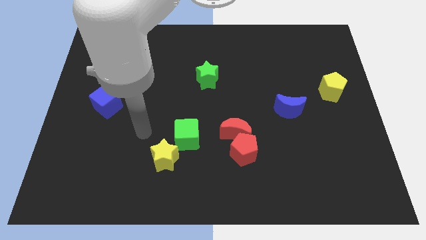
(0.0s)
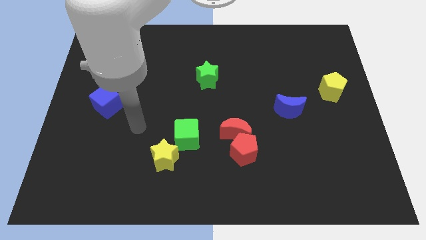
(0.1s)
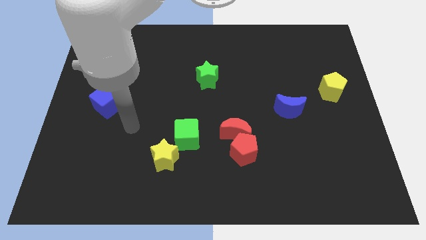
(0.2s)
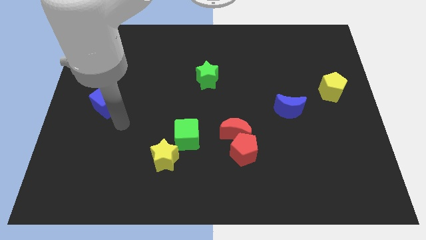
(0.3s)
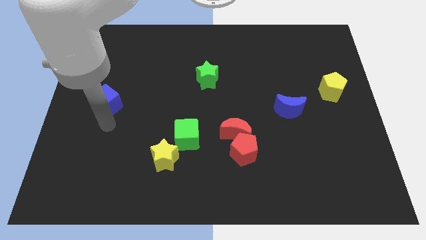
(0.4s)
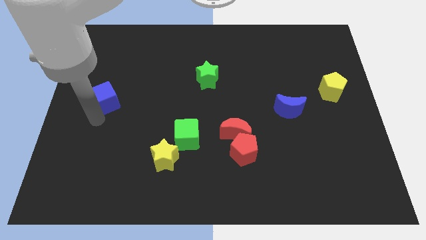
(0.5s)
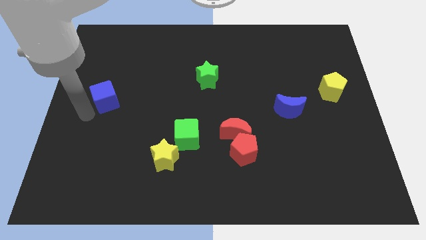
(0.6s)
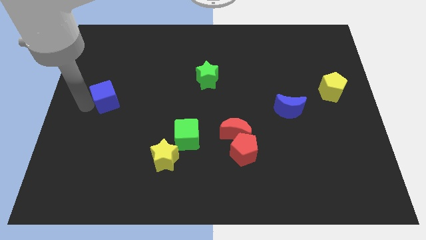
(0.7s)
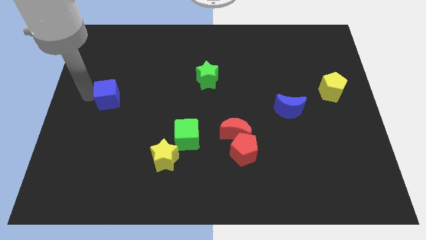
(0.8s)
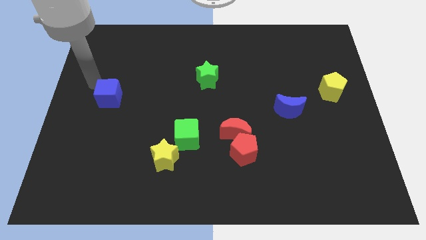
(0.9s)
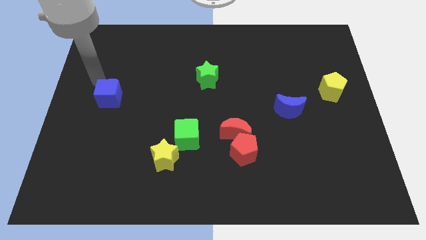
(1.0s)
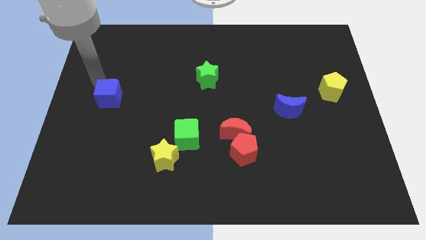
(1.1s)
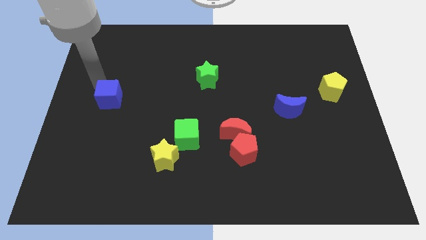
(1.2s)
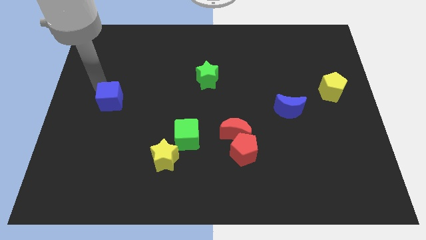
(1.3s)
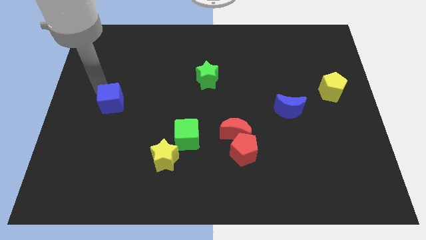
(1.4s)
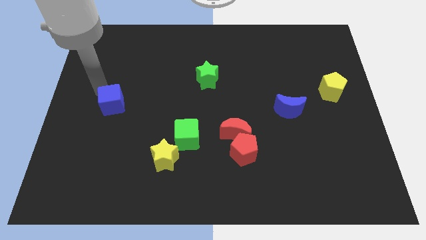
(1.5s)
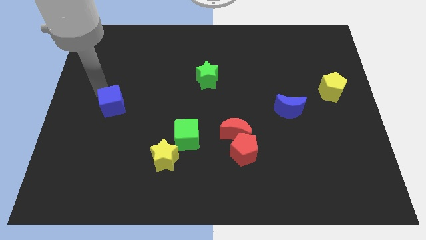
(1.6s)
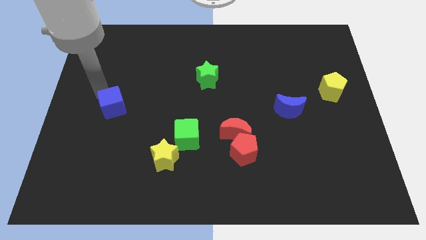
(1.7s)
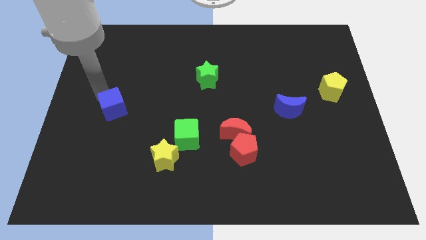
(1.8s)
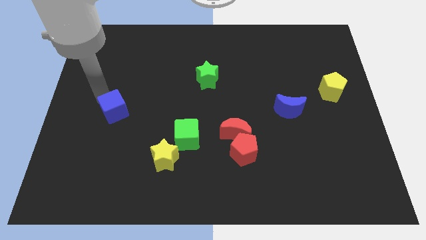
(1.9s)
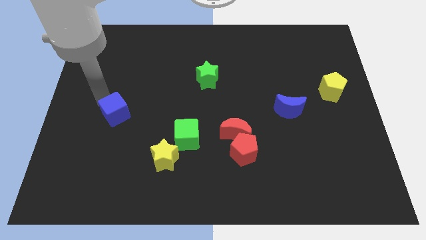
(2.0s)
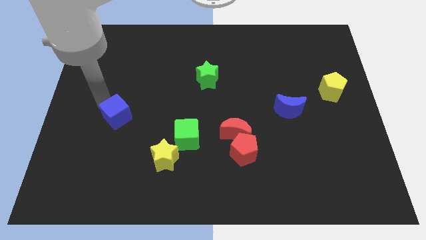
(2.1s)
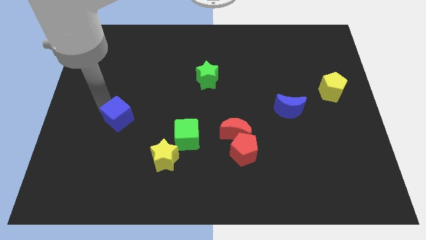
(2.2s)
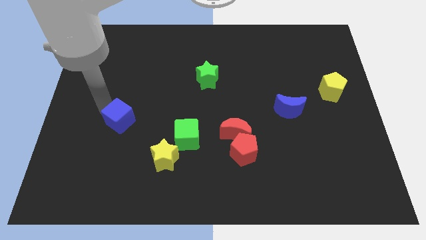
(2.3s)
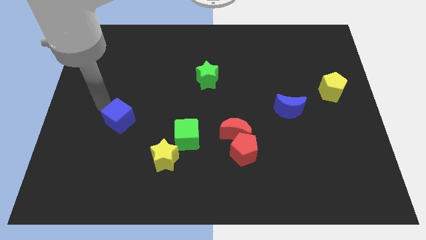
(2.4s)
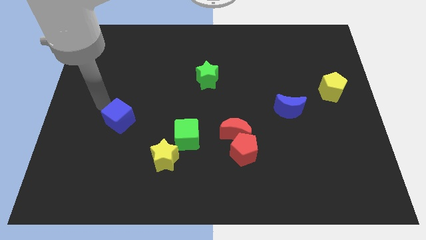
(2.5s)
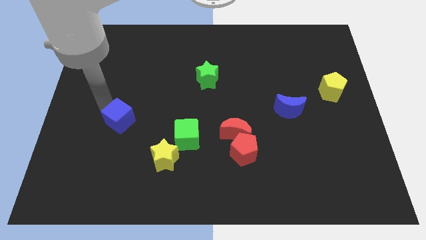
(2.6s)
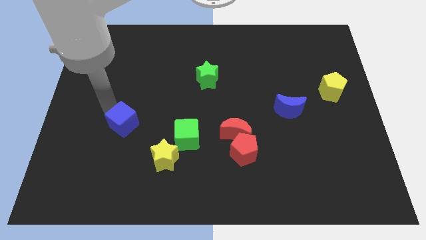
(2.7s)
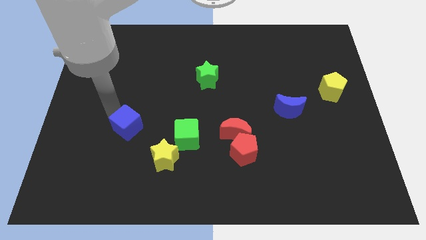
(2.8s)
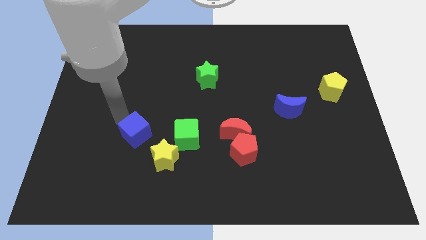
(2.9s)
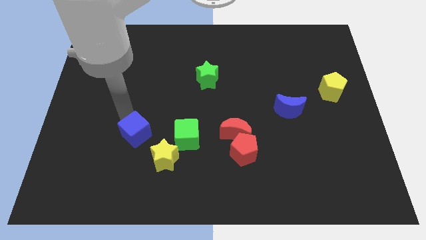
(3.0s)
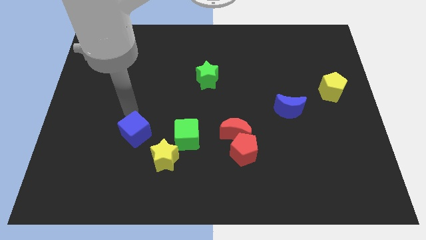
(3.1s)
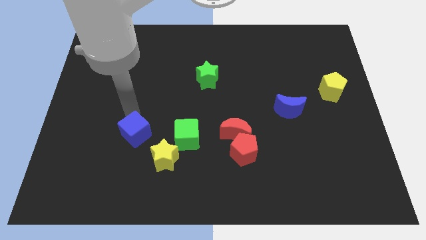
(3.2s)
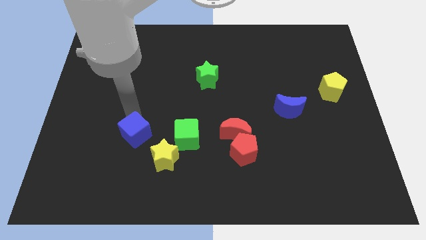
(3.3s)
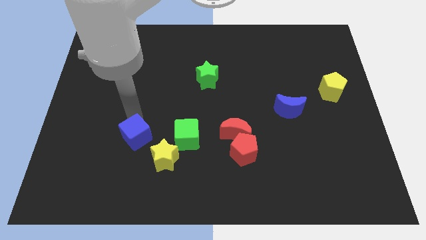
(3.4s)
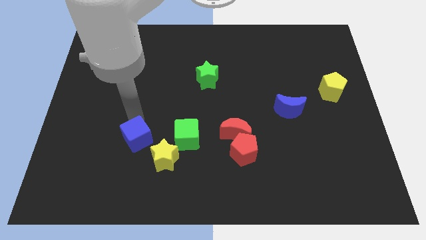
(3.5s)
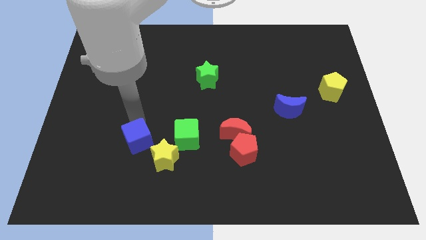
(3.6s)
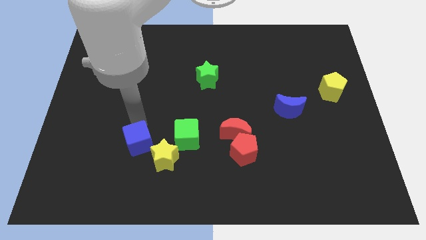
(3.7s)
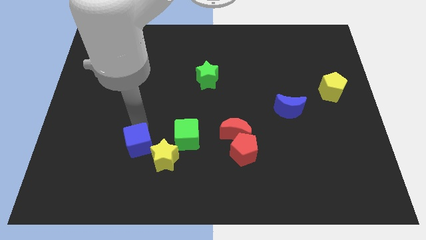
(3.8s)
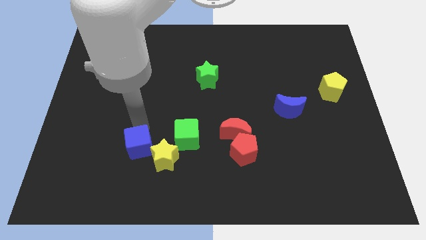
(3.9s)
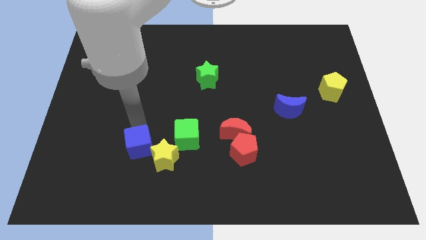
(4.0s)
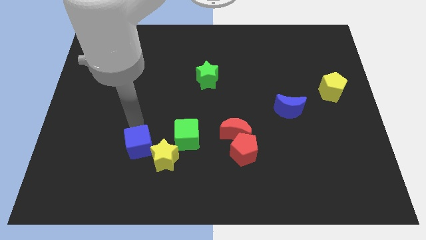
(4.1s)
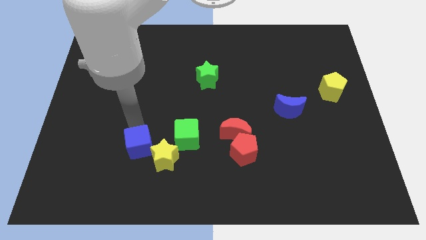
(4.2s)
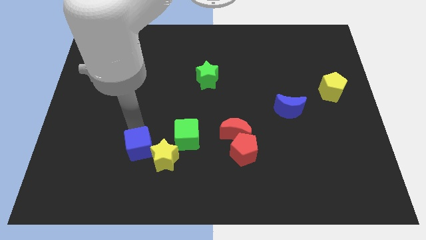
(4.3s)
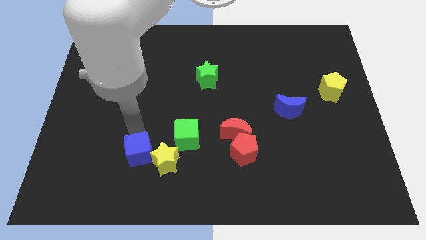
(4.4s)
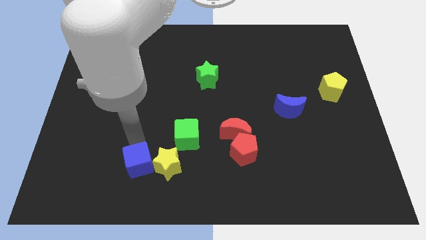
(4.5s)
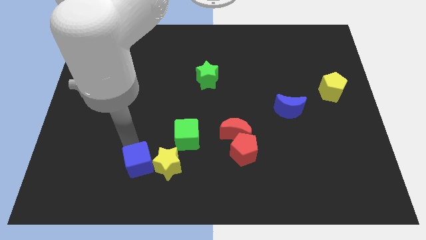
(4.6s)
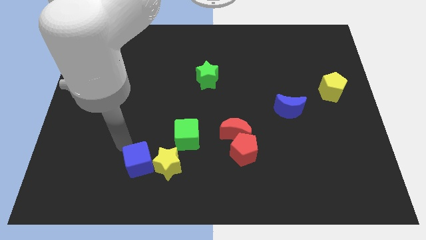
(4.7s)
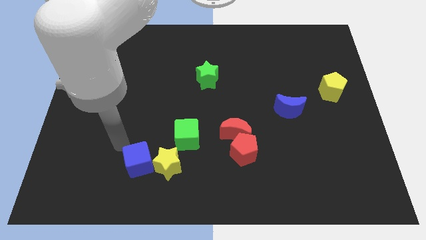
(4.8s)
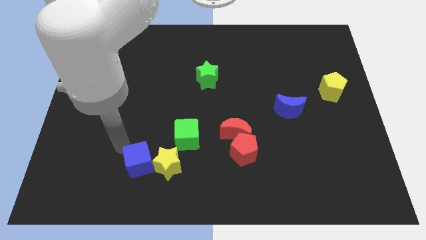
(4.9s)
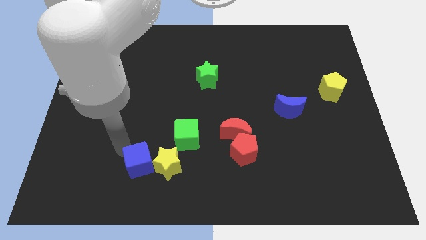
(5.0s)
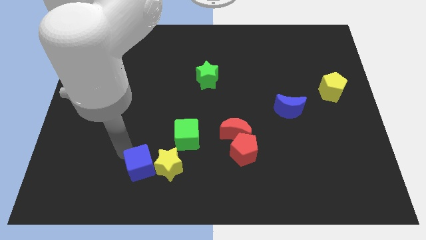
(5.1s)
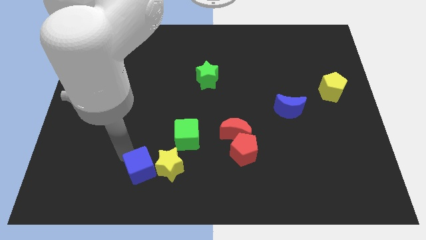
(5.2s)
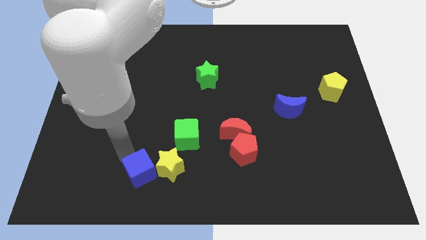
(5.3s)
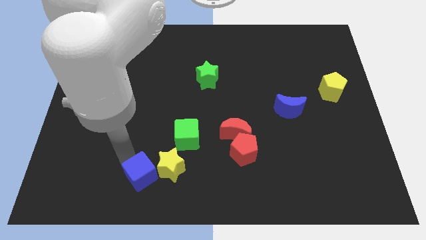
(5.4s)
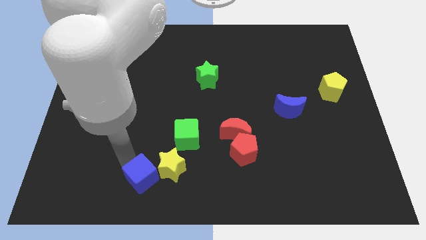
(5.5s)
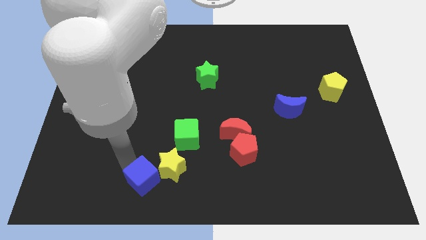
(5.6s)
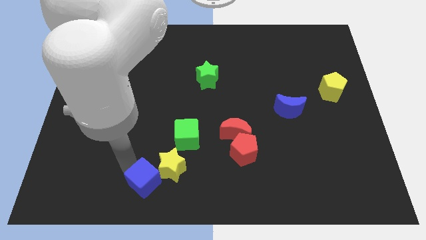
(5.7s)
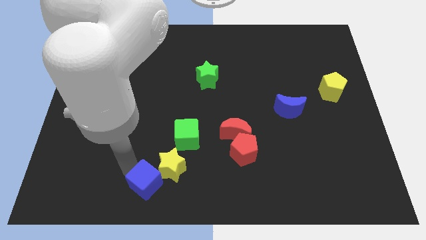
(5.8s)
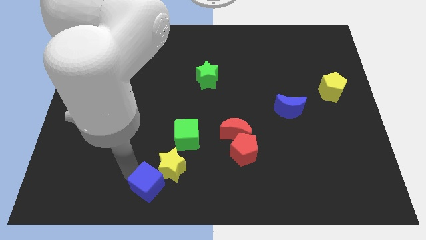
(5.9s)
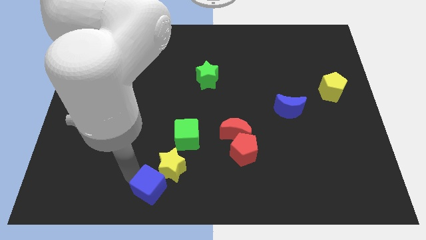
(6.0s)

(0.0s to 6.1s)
put the blue cube to the bottom side
